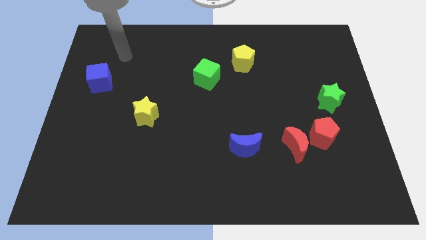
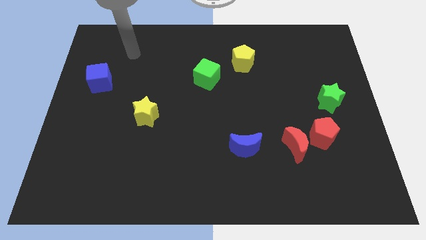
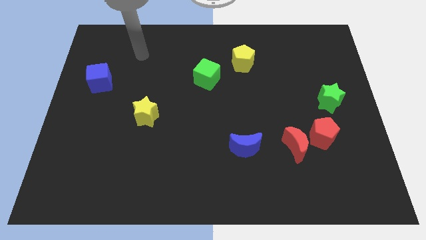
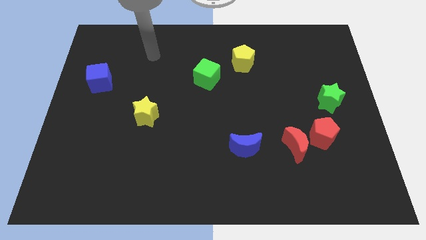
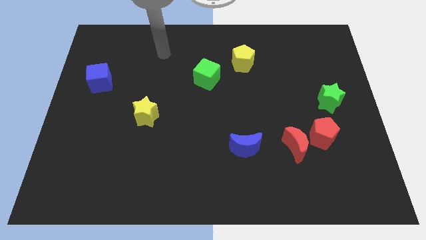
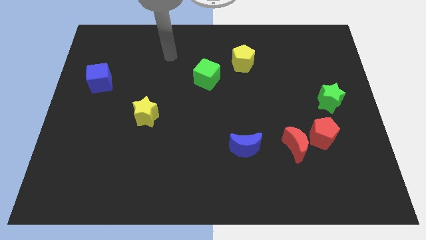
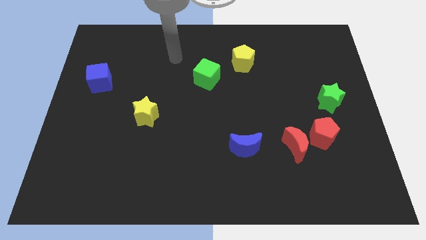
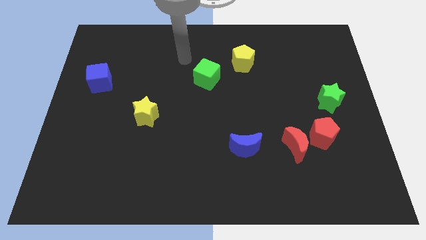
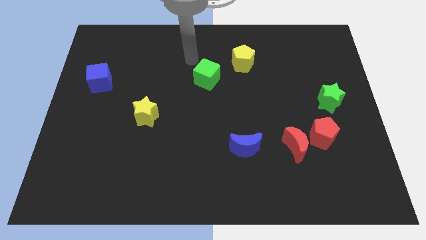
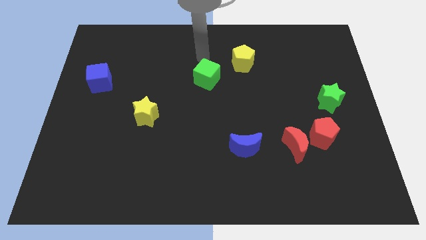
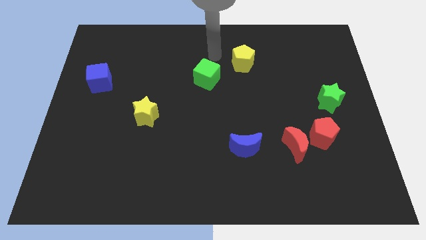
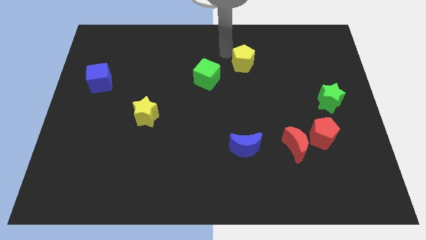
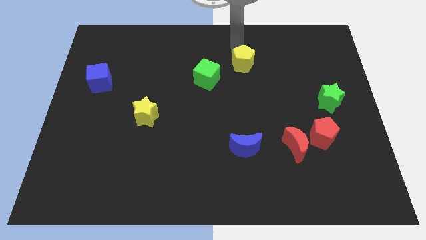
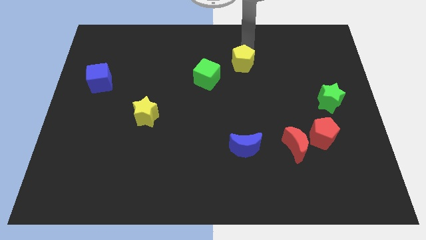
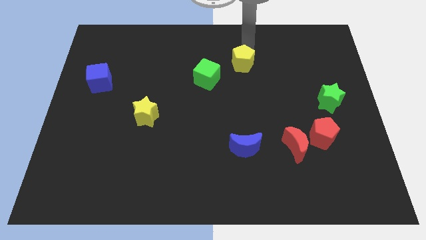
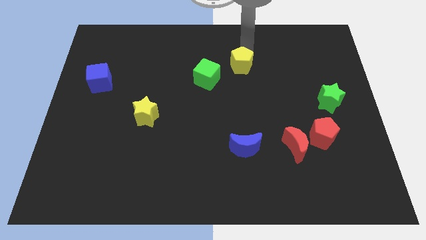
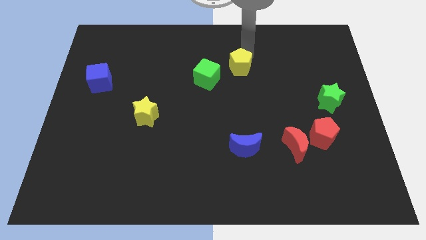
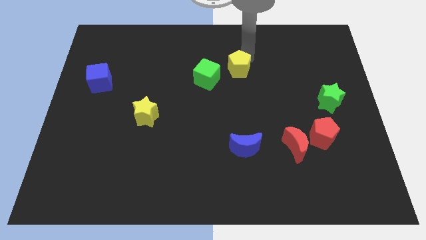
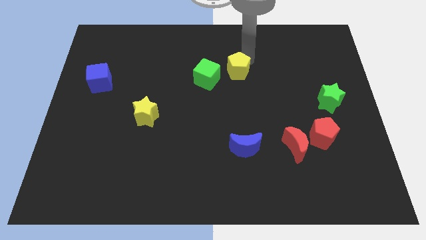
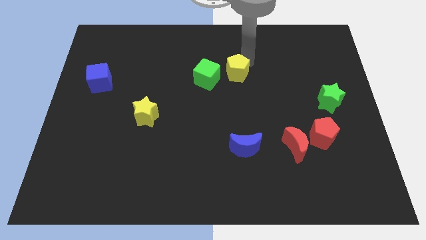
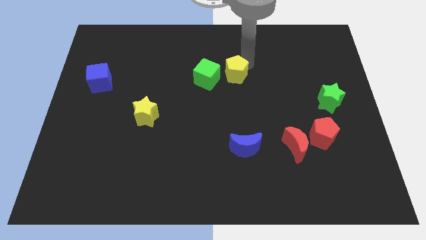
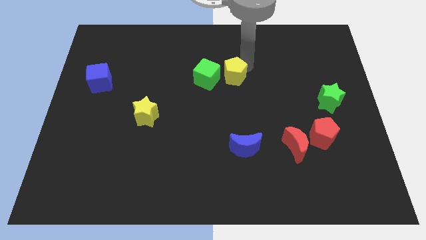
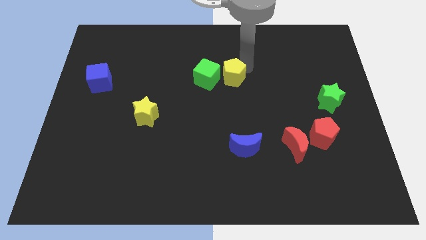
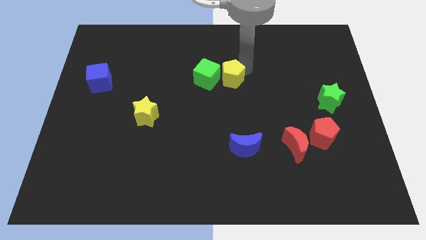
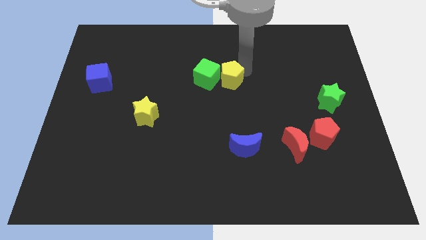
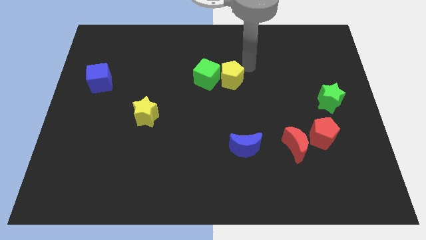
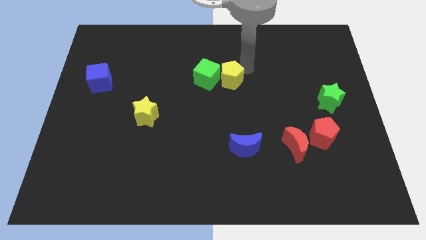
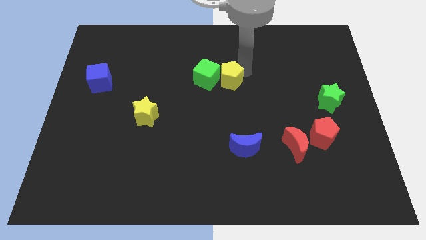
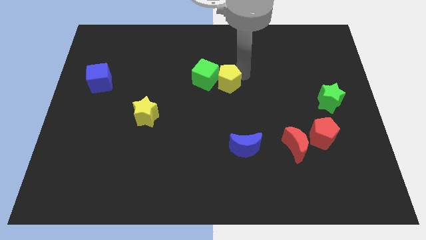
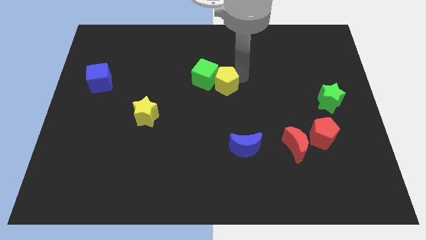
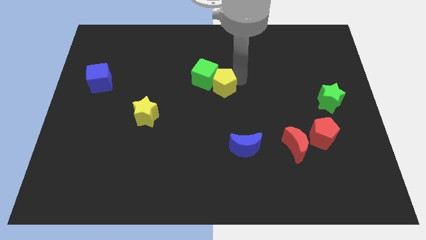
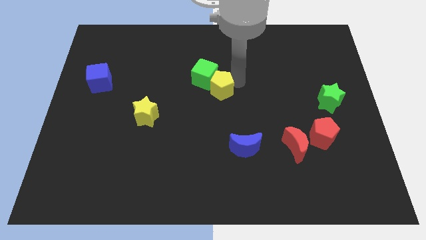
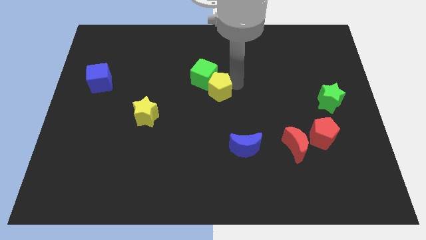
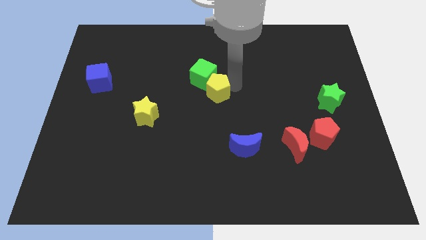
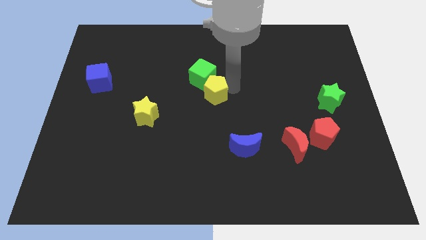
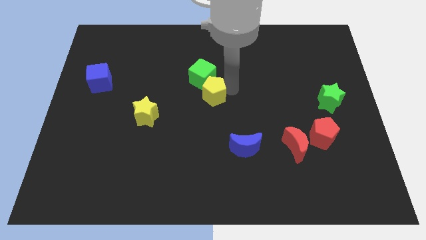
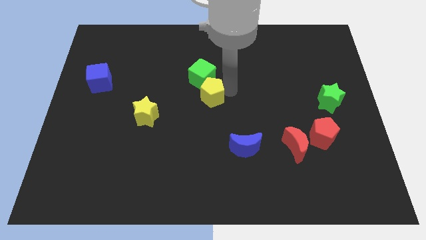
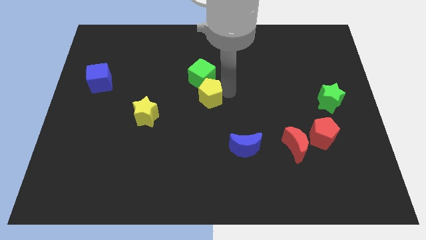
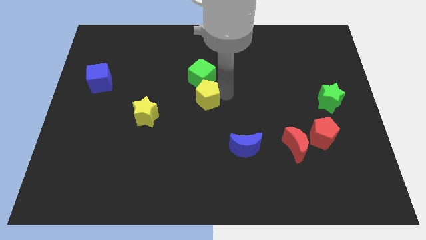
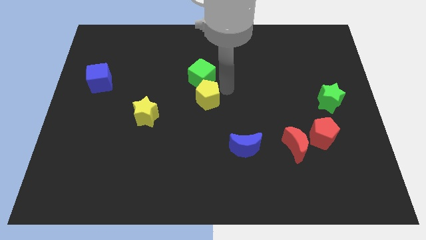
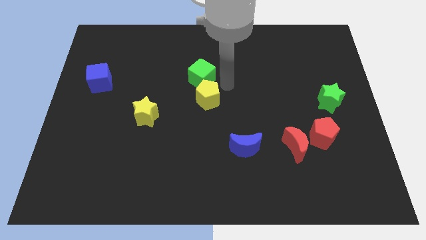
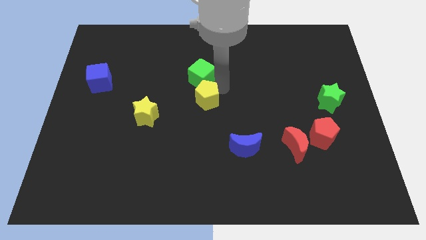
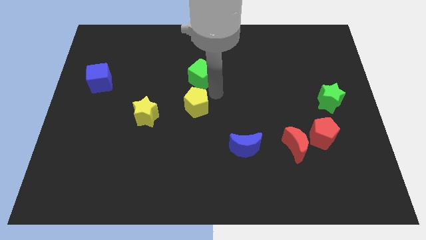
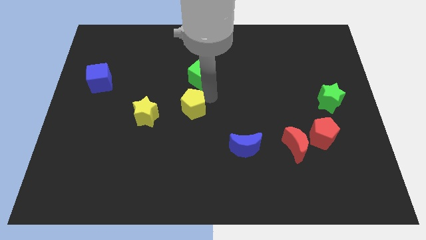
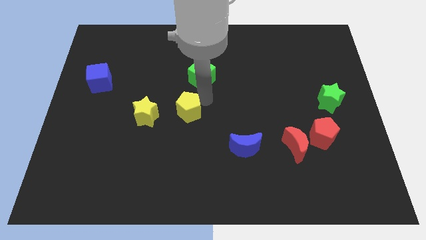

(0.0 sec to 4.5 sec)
push the yellow pentagon downwards and to the left diagonally

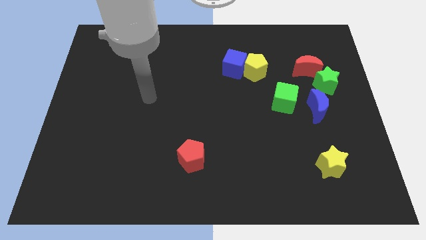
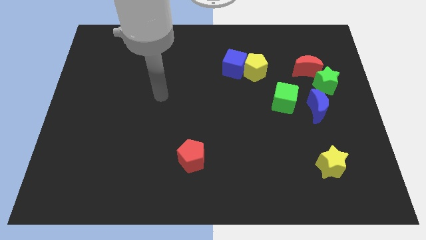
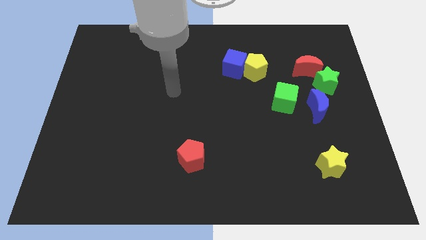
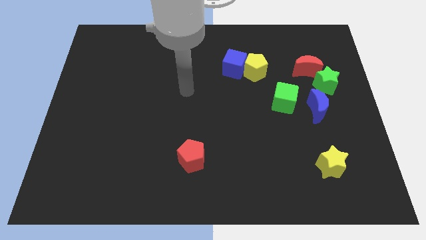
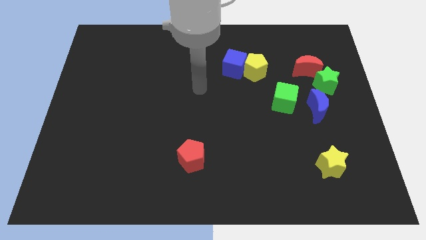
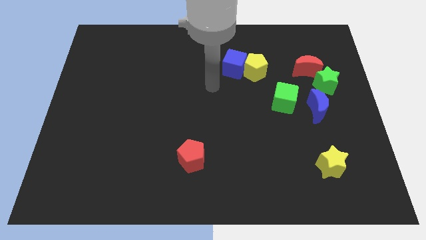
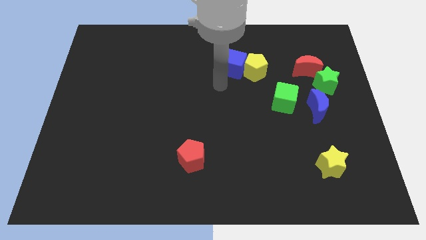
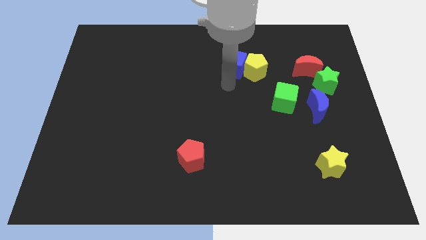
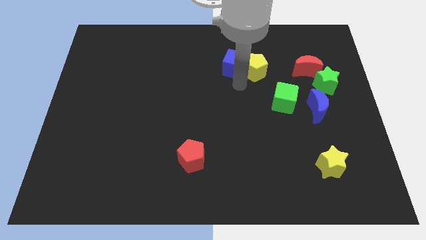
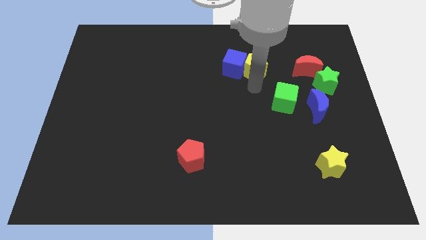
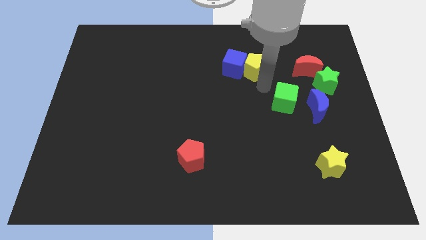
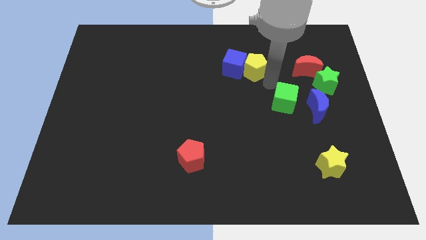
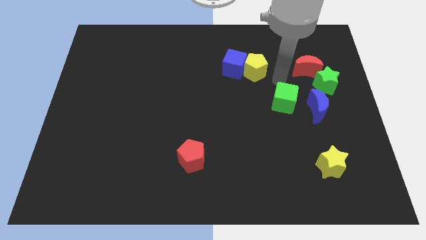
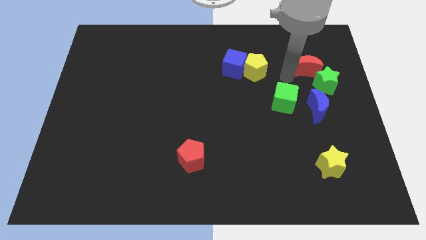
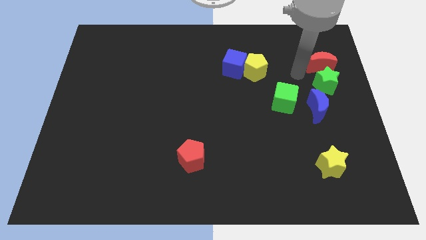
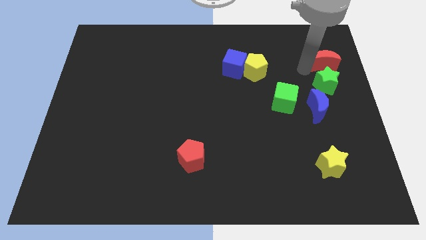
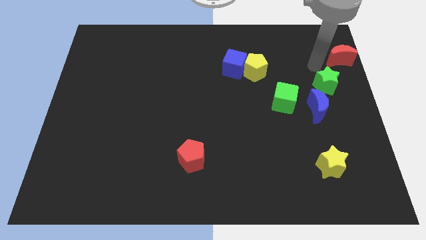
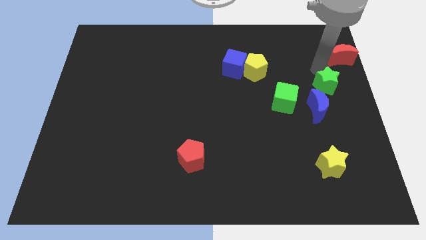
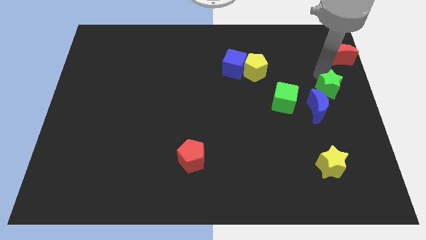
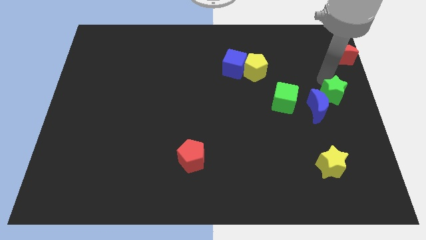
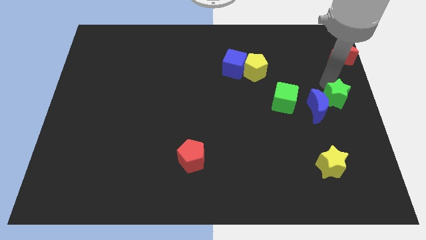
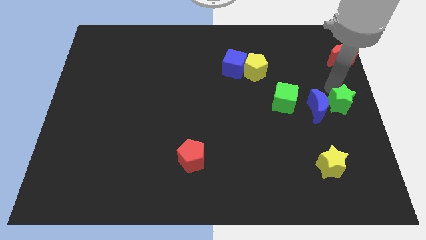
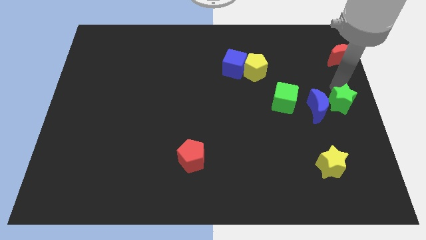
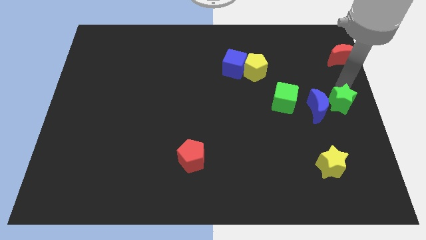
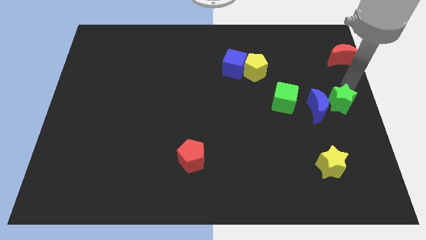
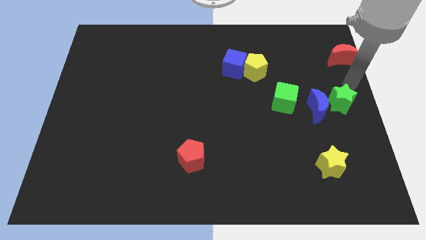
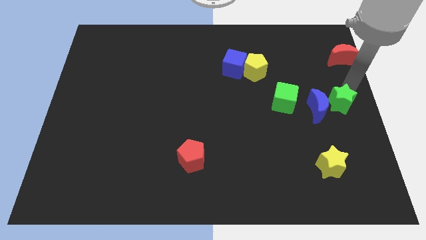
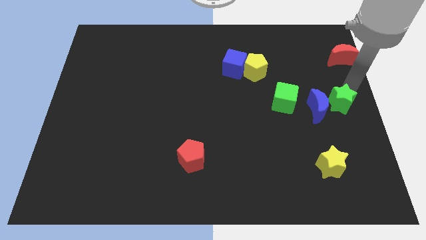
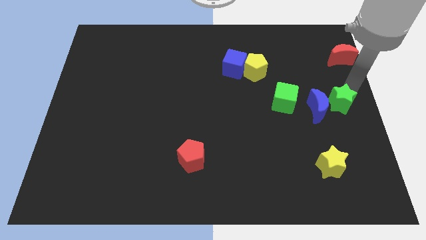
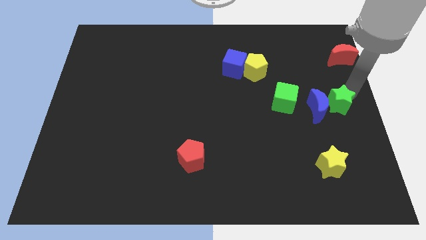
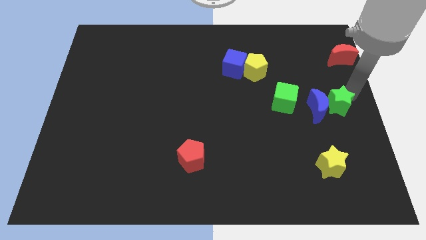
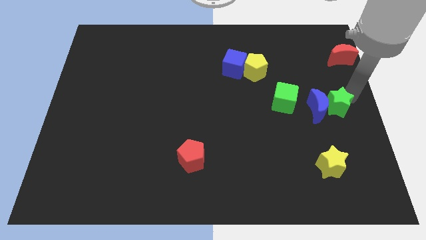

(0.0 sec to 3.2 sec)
slightly push the green star downwards
